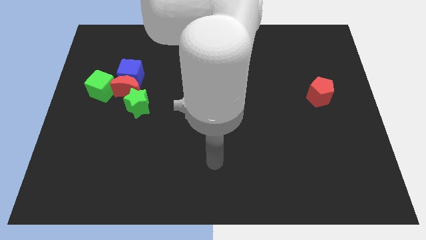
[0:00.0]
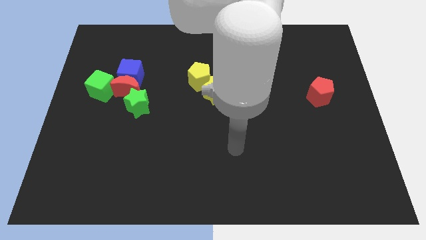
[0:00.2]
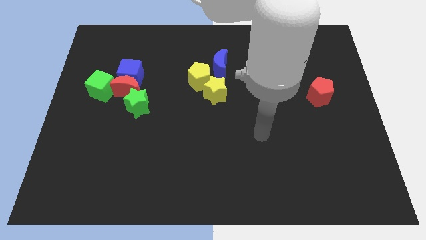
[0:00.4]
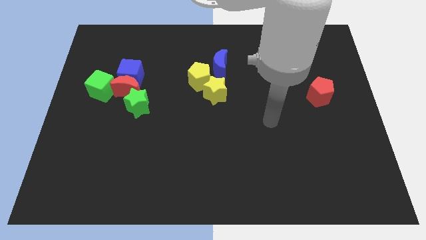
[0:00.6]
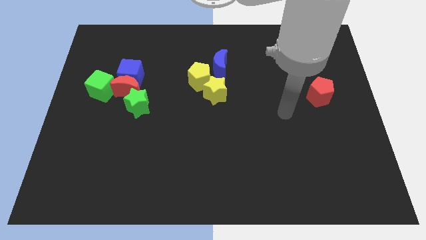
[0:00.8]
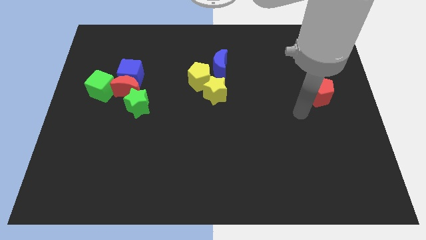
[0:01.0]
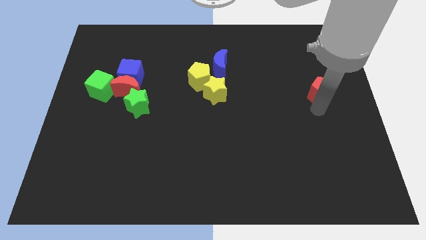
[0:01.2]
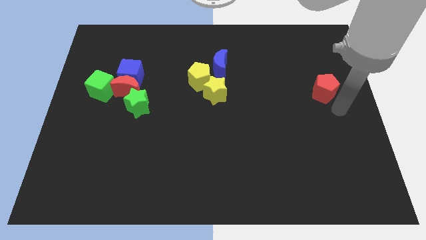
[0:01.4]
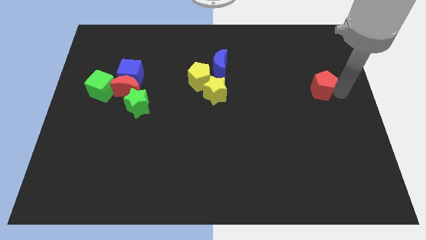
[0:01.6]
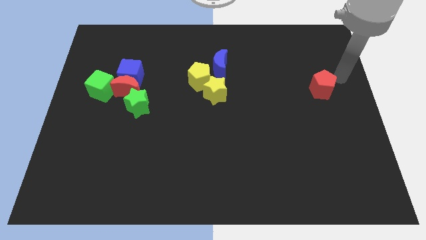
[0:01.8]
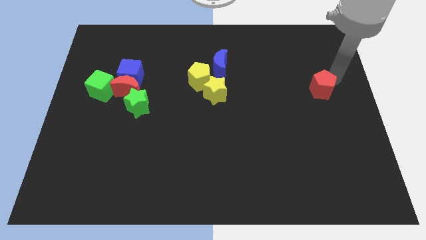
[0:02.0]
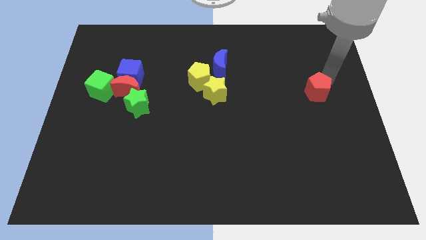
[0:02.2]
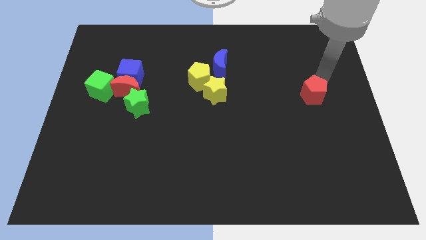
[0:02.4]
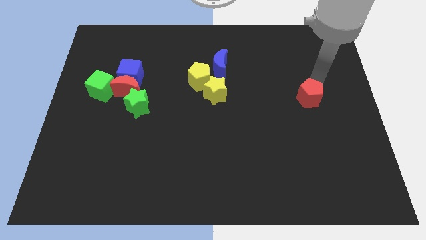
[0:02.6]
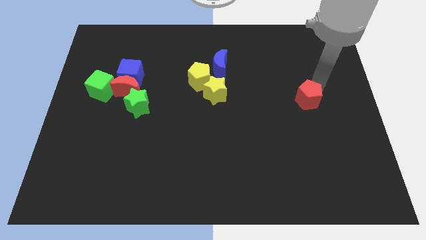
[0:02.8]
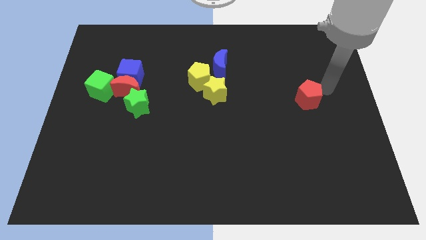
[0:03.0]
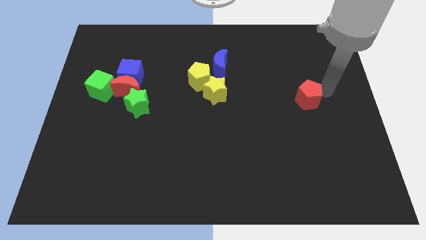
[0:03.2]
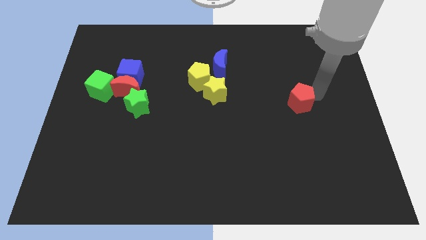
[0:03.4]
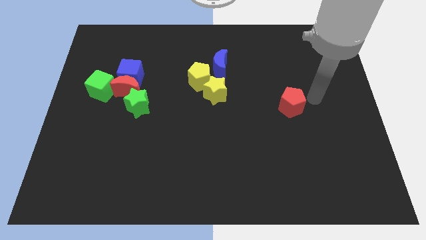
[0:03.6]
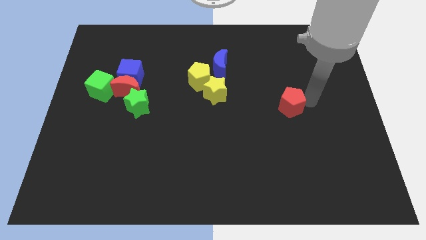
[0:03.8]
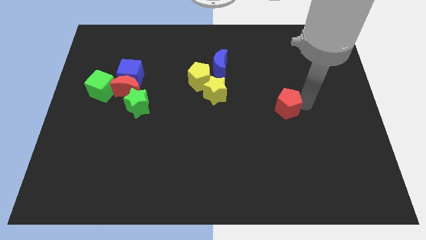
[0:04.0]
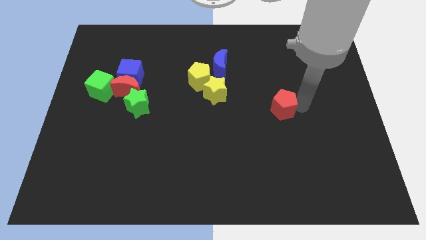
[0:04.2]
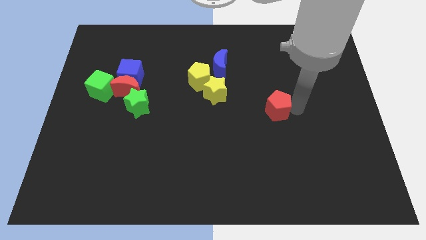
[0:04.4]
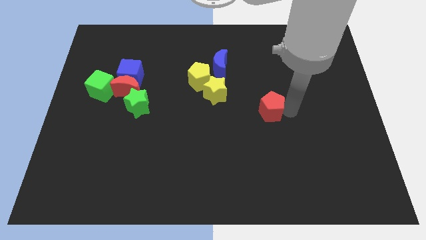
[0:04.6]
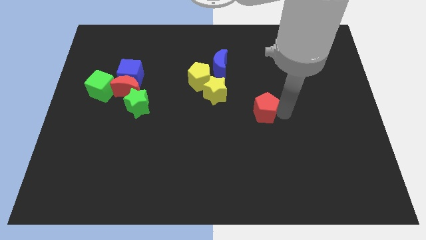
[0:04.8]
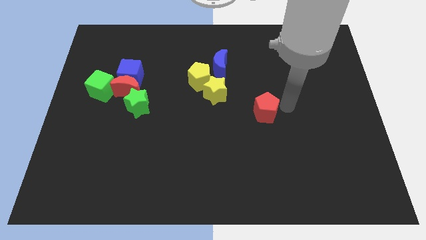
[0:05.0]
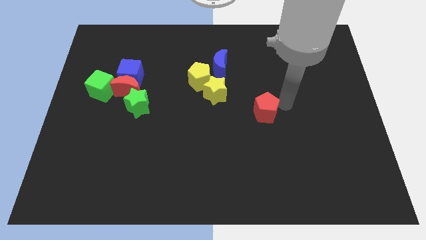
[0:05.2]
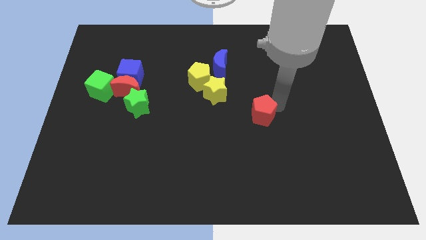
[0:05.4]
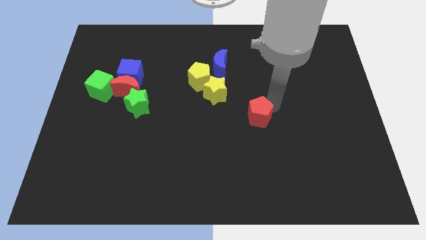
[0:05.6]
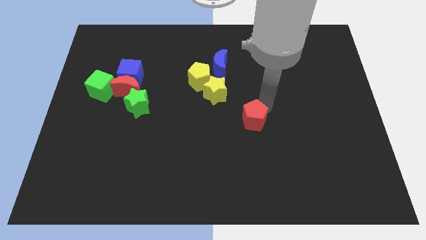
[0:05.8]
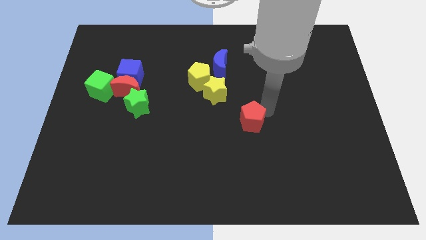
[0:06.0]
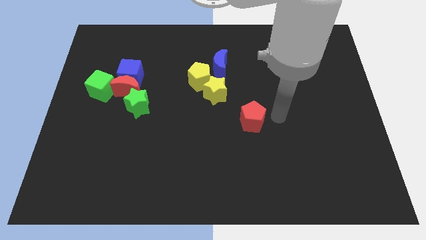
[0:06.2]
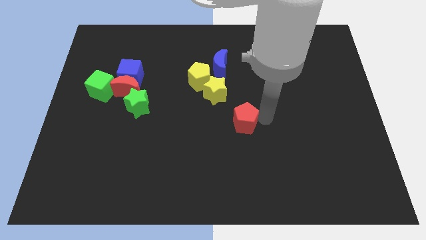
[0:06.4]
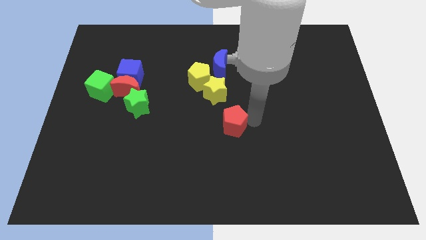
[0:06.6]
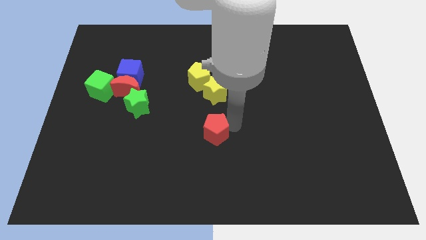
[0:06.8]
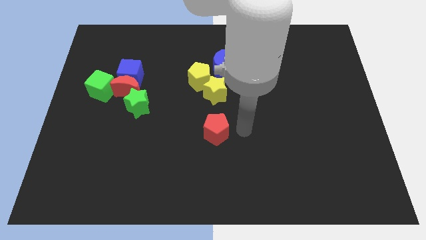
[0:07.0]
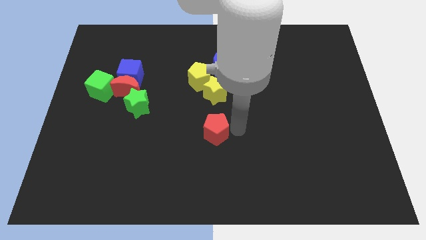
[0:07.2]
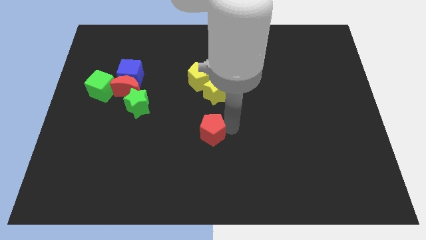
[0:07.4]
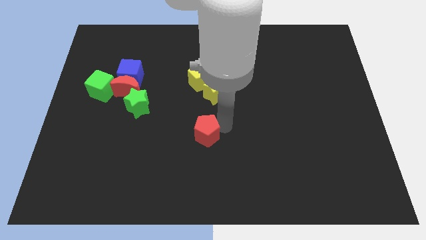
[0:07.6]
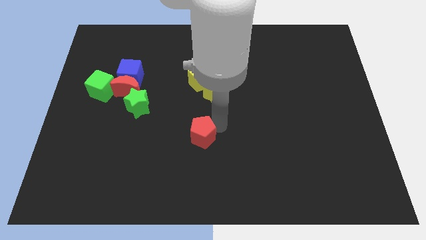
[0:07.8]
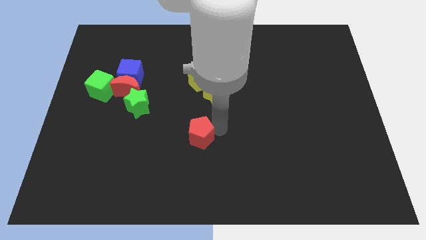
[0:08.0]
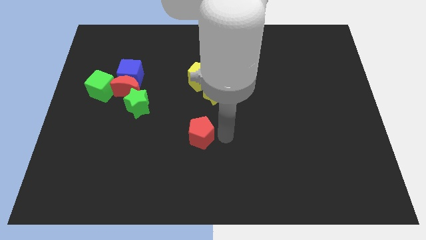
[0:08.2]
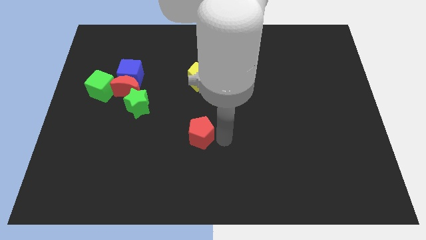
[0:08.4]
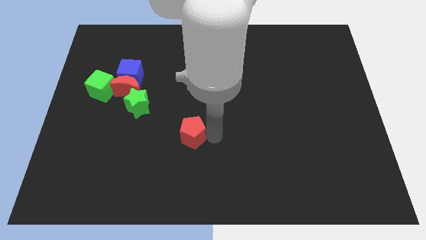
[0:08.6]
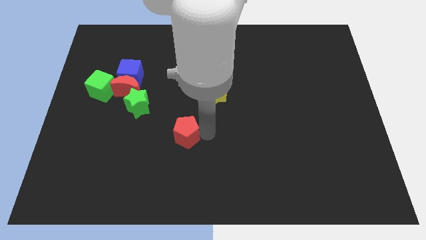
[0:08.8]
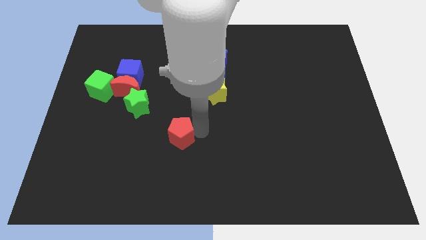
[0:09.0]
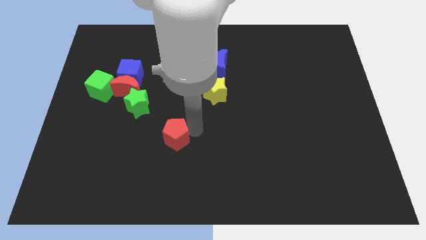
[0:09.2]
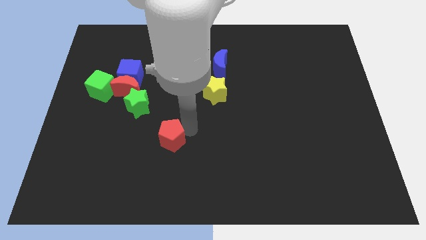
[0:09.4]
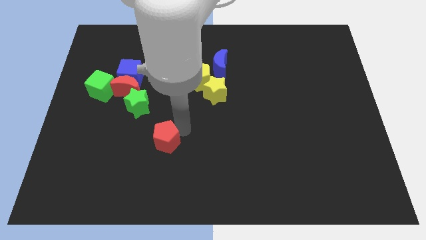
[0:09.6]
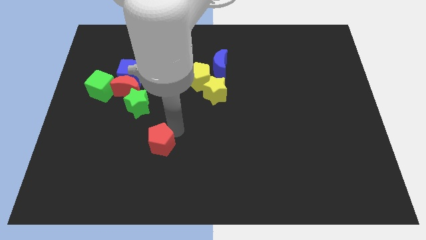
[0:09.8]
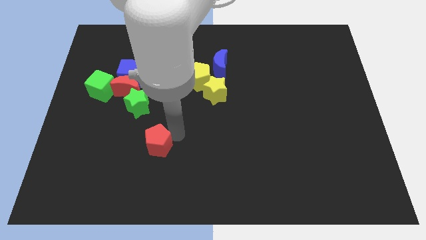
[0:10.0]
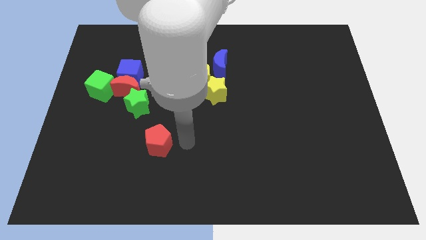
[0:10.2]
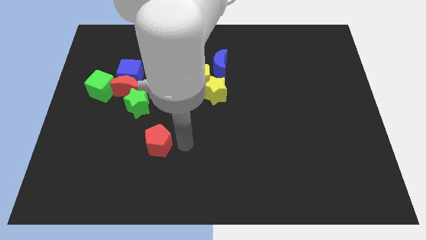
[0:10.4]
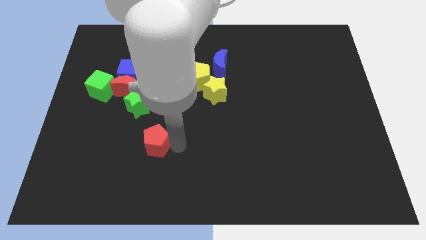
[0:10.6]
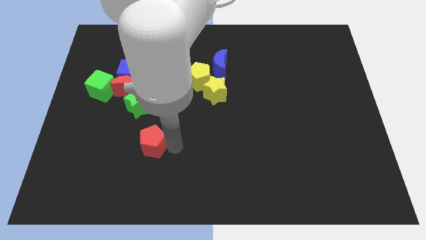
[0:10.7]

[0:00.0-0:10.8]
put the red pentagon to the bottom side of the green star

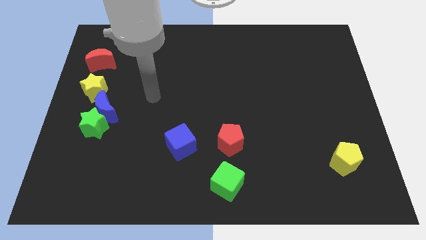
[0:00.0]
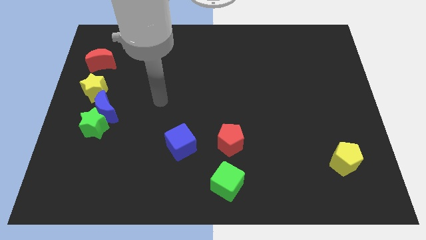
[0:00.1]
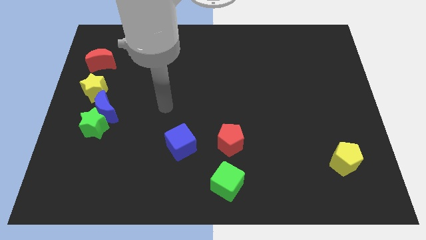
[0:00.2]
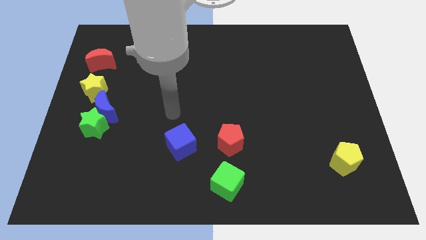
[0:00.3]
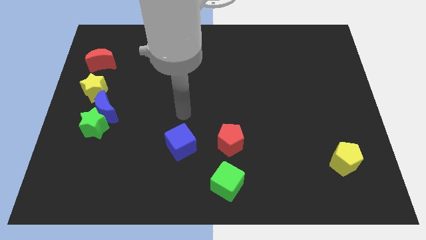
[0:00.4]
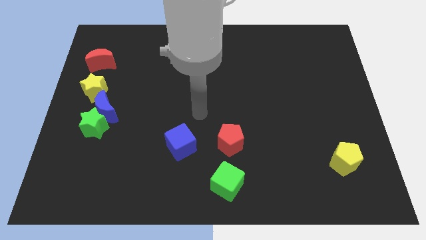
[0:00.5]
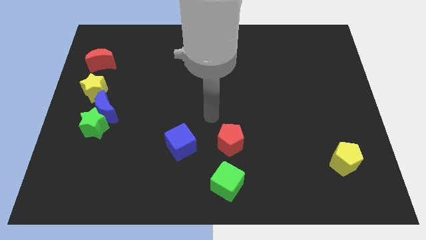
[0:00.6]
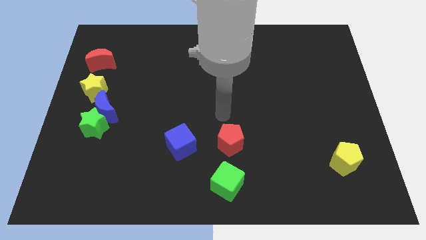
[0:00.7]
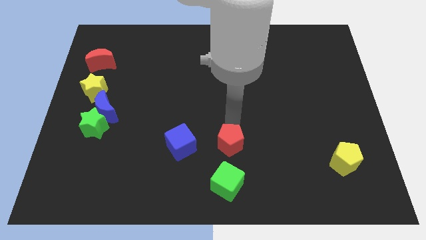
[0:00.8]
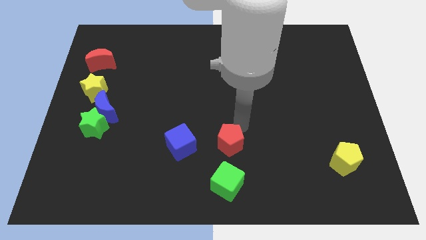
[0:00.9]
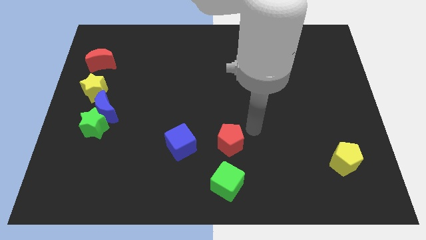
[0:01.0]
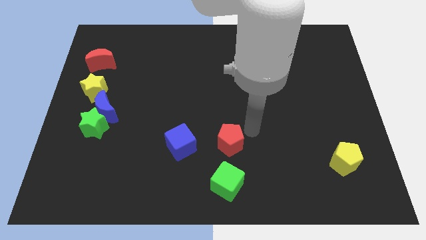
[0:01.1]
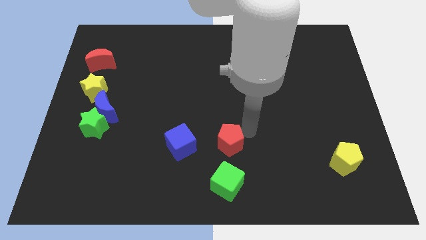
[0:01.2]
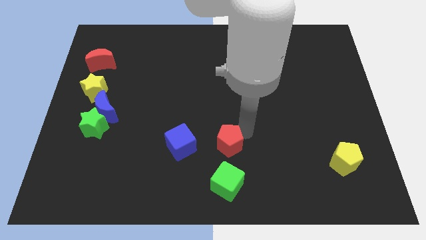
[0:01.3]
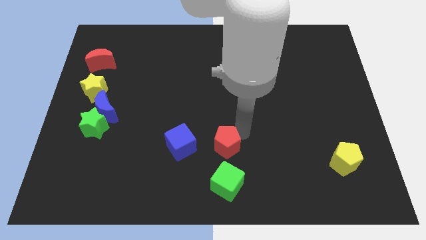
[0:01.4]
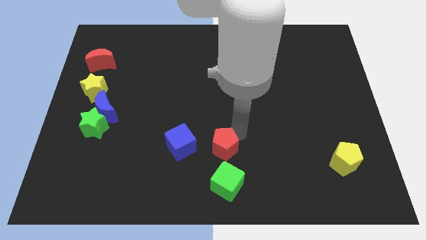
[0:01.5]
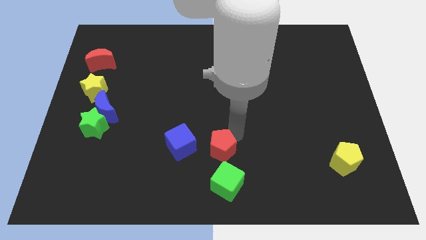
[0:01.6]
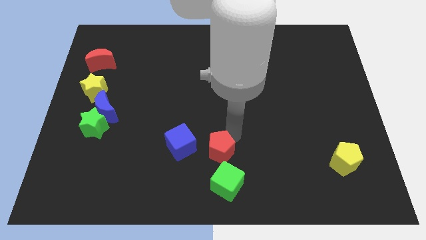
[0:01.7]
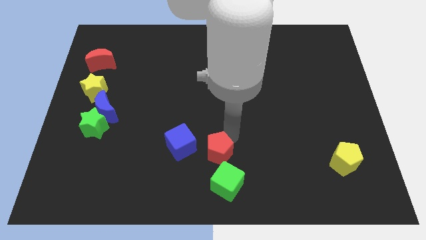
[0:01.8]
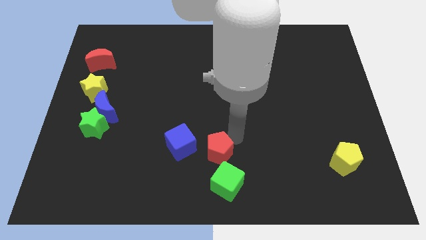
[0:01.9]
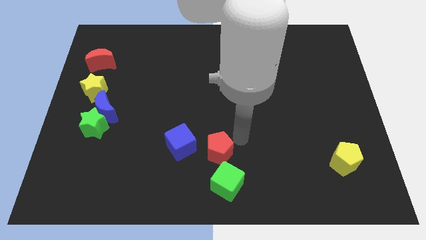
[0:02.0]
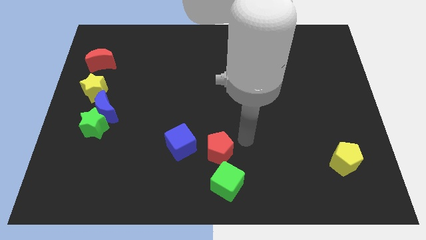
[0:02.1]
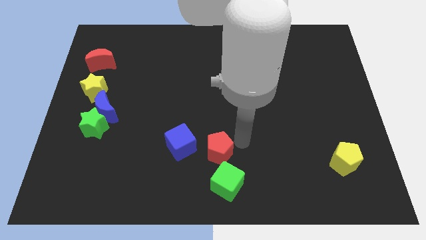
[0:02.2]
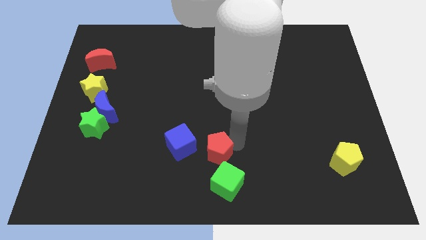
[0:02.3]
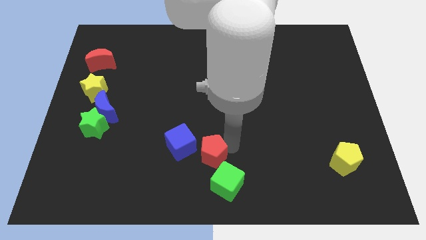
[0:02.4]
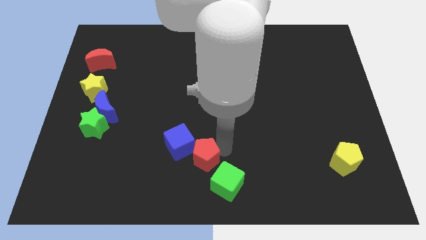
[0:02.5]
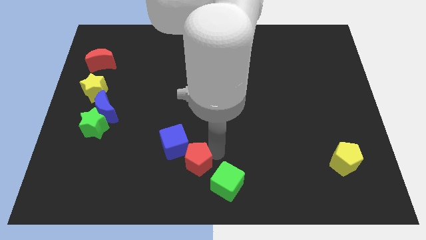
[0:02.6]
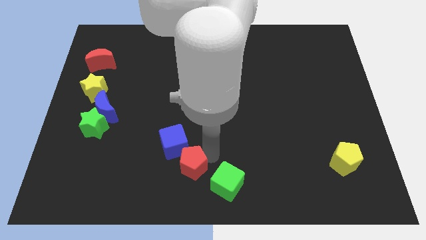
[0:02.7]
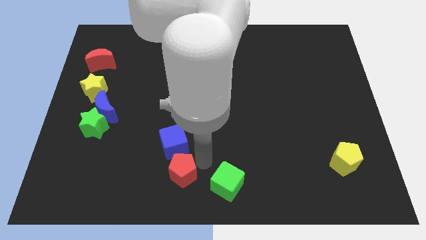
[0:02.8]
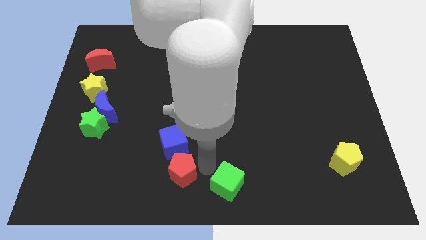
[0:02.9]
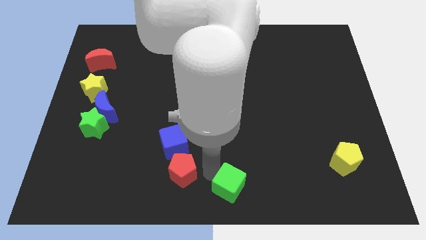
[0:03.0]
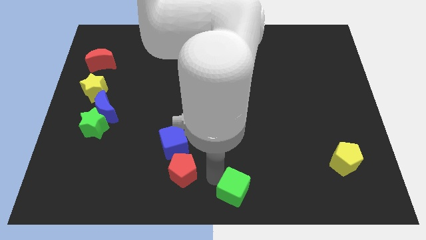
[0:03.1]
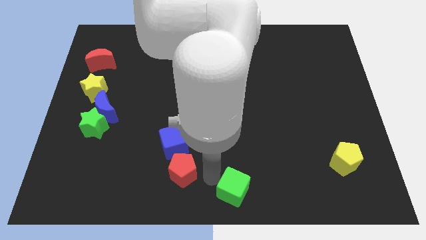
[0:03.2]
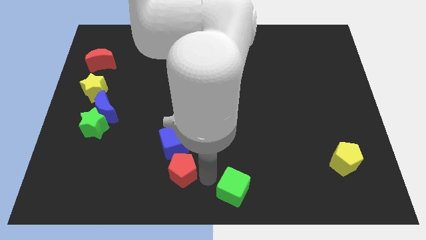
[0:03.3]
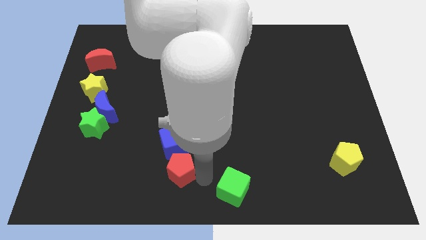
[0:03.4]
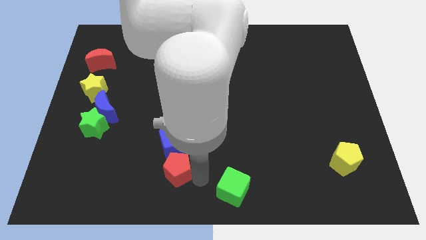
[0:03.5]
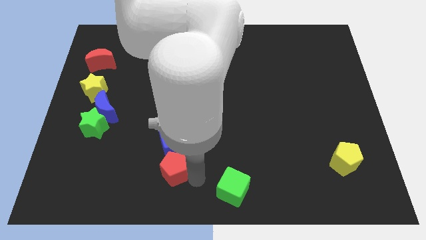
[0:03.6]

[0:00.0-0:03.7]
push the red pentagon to the bottom left of the blue cube
